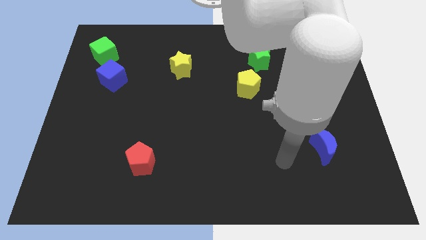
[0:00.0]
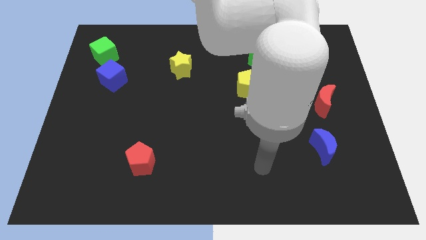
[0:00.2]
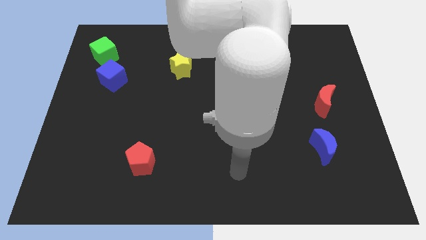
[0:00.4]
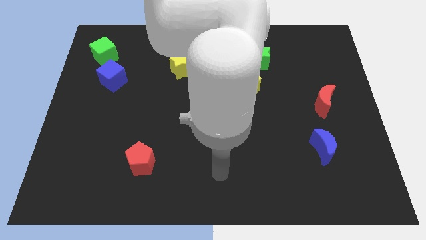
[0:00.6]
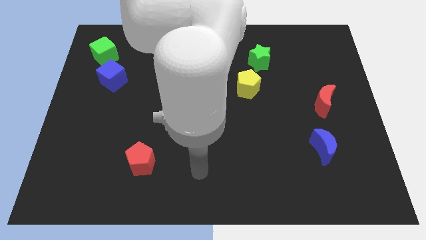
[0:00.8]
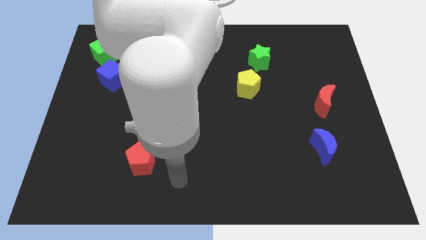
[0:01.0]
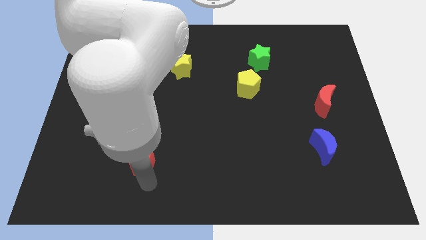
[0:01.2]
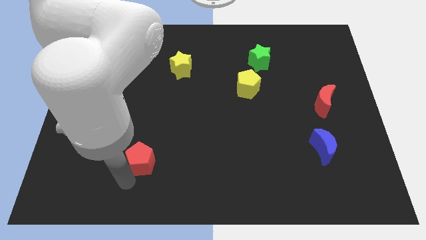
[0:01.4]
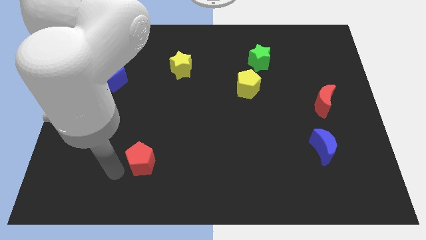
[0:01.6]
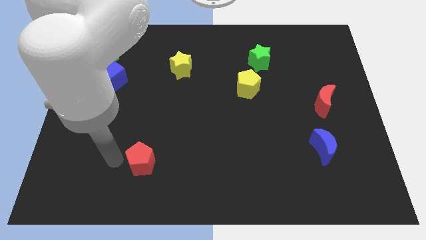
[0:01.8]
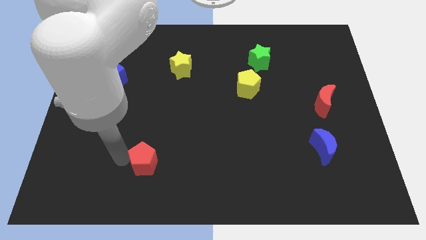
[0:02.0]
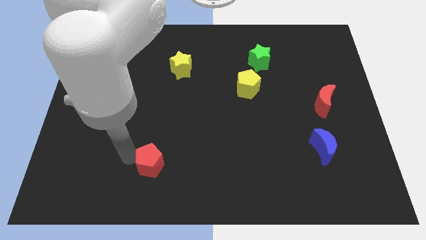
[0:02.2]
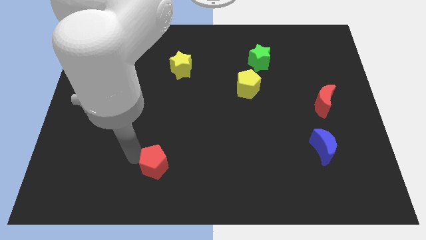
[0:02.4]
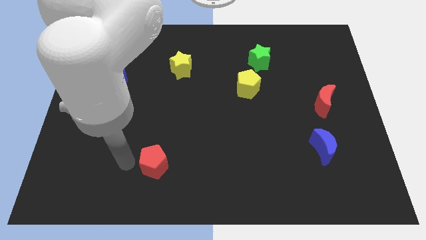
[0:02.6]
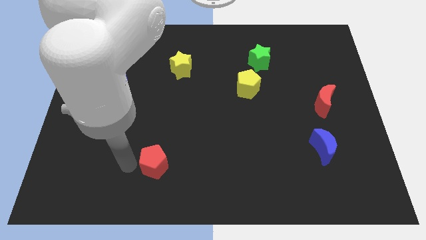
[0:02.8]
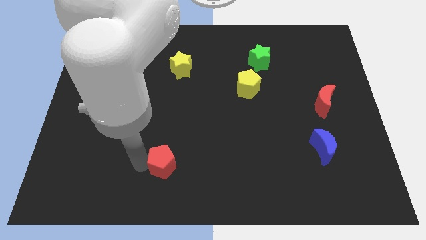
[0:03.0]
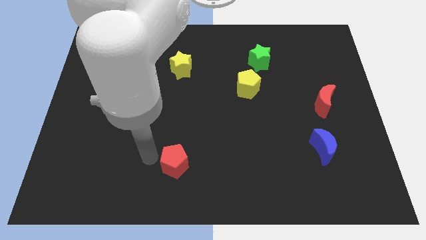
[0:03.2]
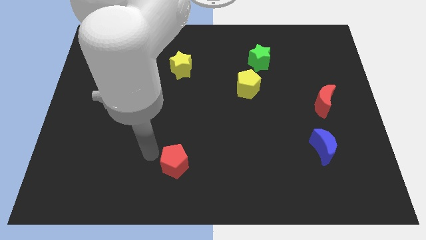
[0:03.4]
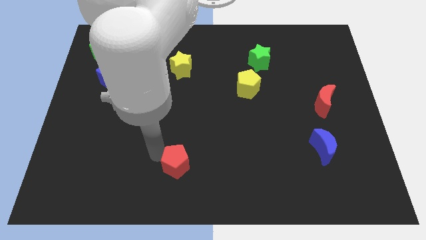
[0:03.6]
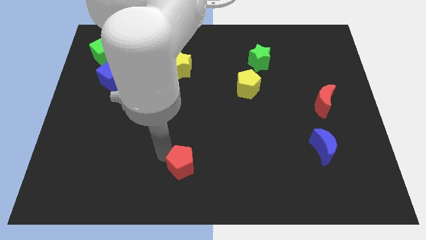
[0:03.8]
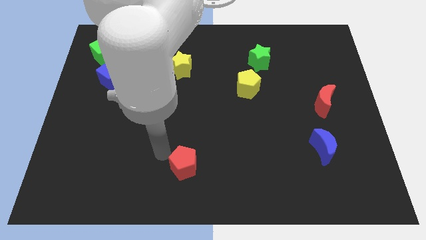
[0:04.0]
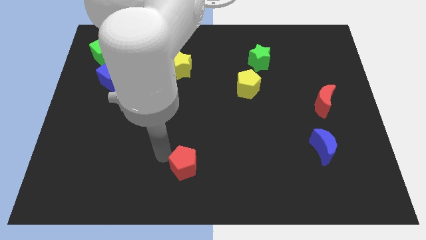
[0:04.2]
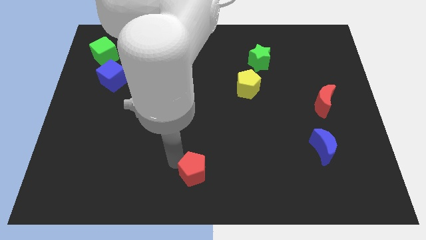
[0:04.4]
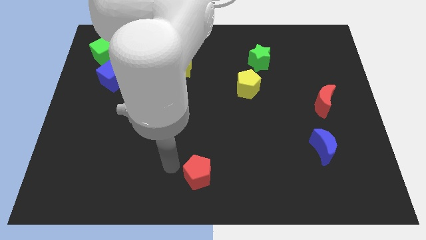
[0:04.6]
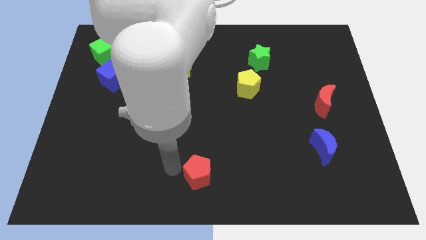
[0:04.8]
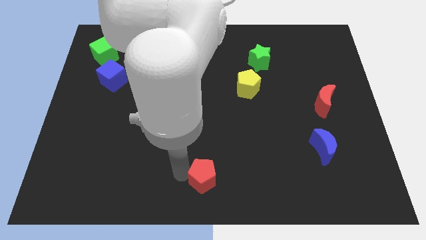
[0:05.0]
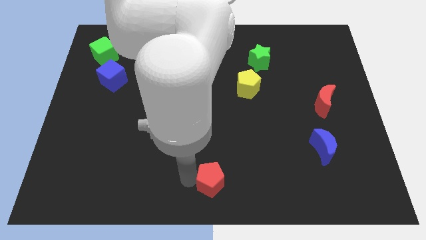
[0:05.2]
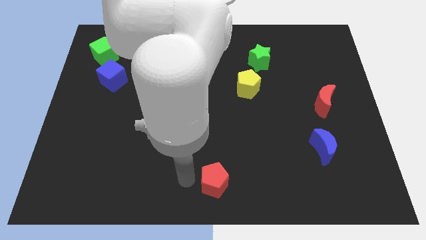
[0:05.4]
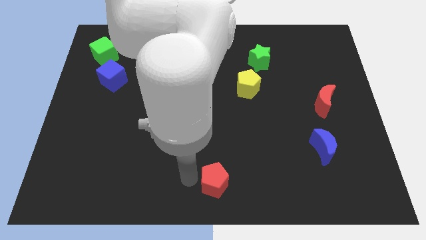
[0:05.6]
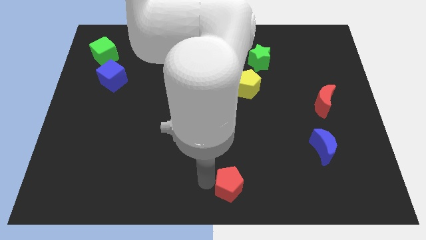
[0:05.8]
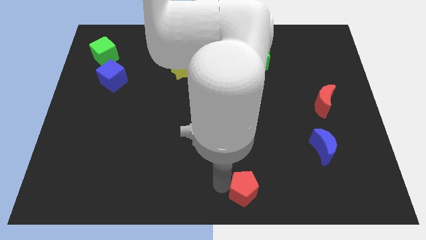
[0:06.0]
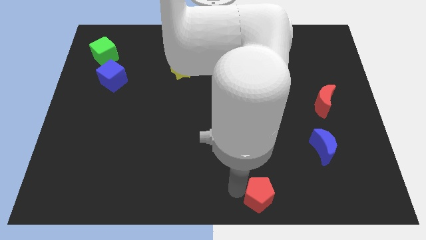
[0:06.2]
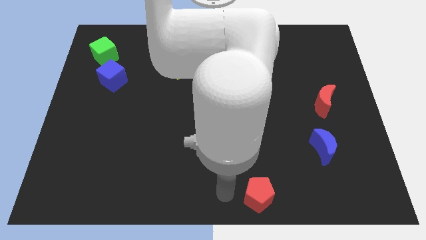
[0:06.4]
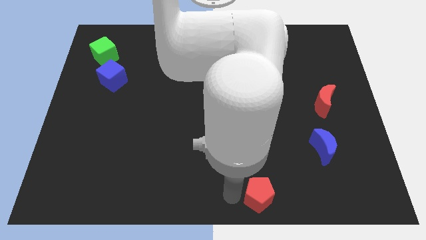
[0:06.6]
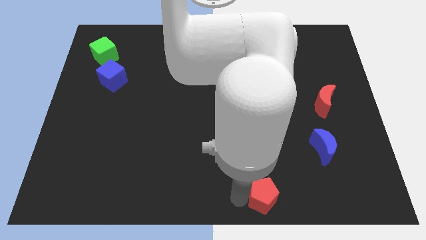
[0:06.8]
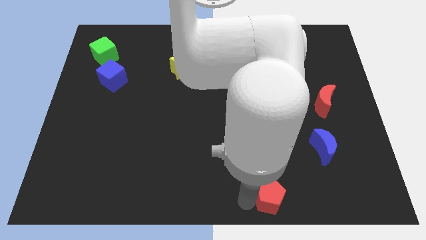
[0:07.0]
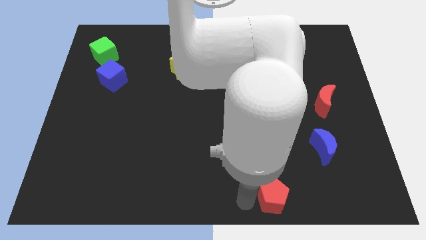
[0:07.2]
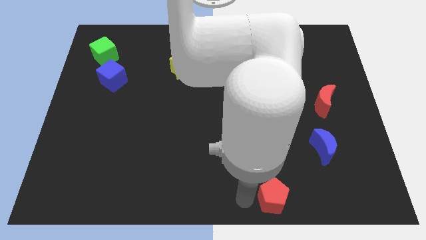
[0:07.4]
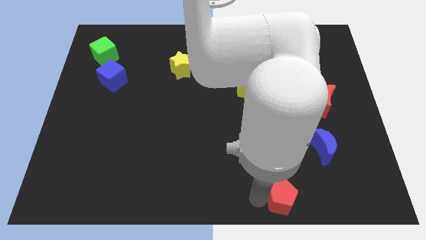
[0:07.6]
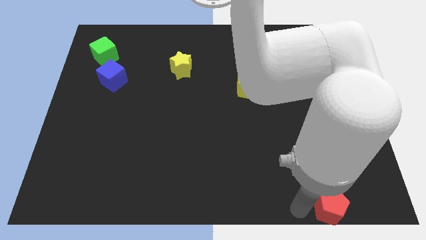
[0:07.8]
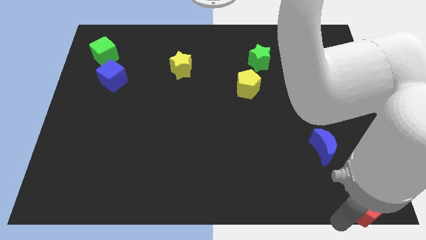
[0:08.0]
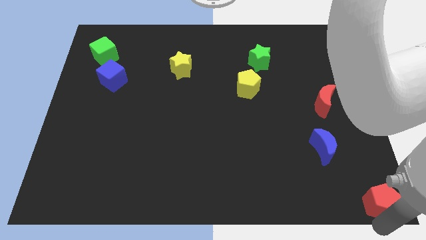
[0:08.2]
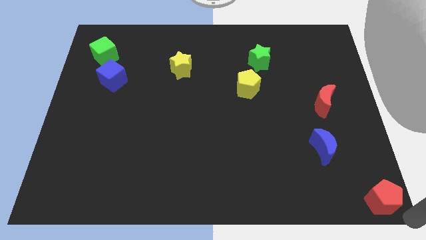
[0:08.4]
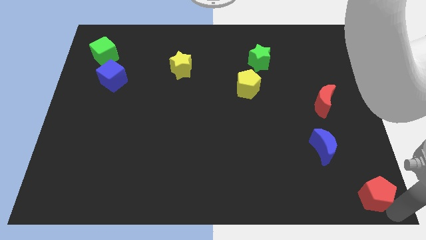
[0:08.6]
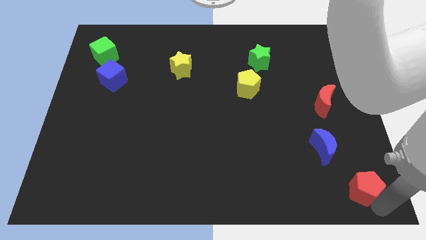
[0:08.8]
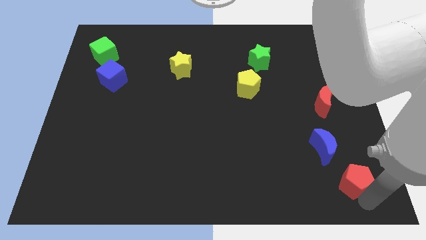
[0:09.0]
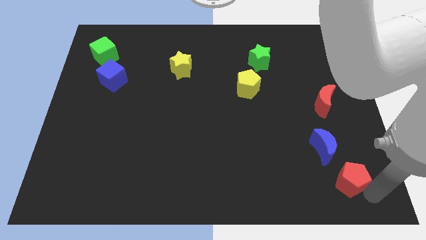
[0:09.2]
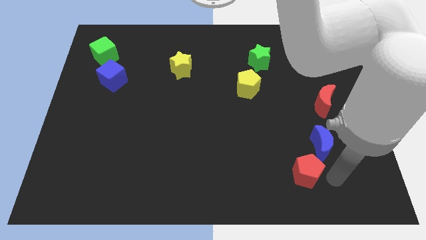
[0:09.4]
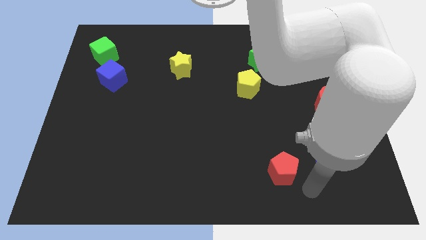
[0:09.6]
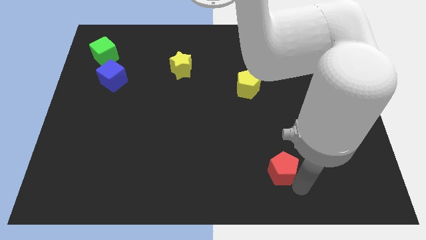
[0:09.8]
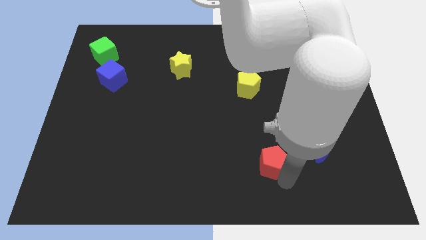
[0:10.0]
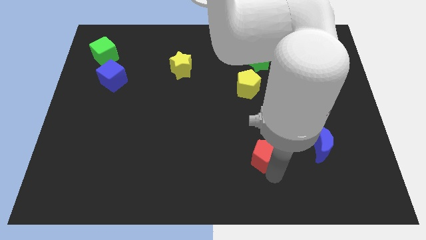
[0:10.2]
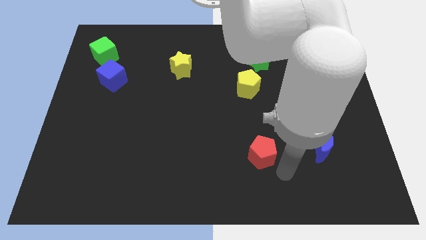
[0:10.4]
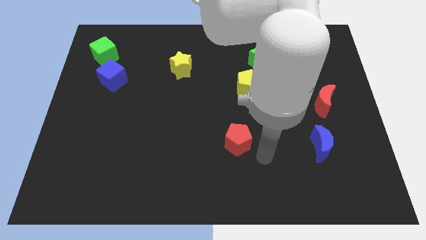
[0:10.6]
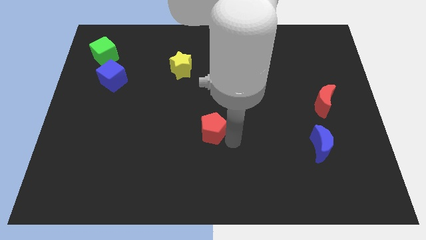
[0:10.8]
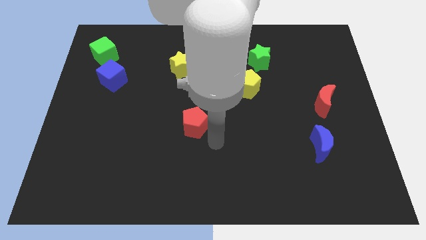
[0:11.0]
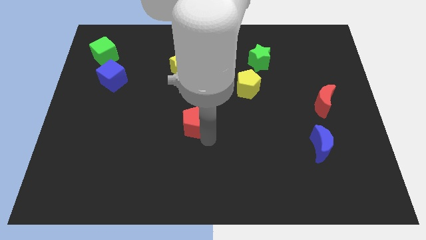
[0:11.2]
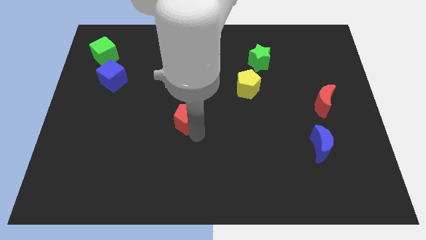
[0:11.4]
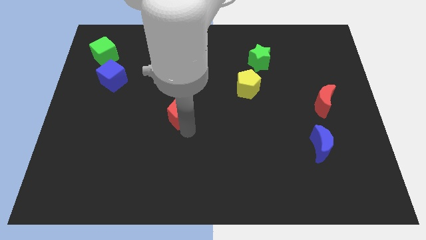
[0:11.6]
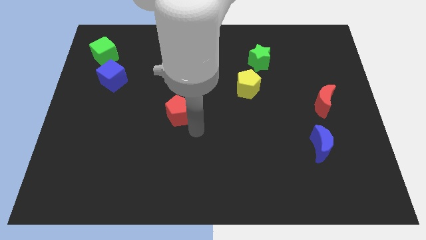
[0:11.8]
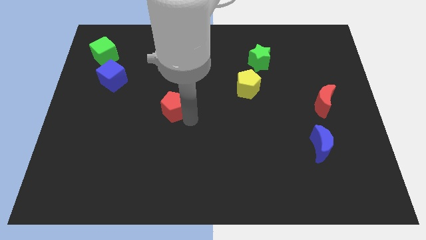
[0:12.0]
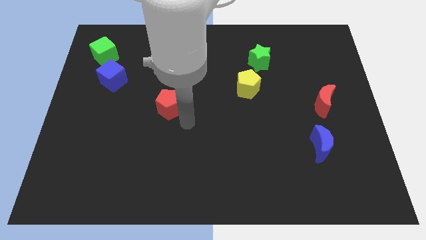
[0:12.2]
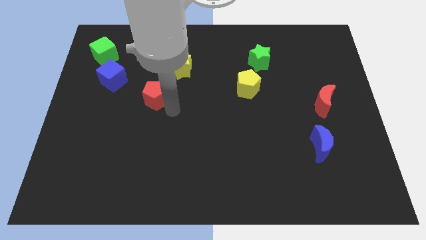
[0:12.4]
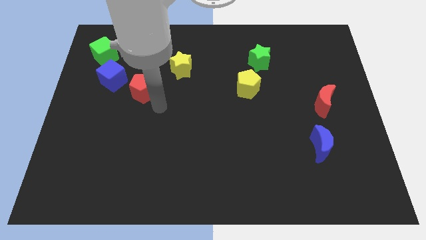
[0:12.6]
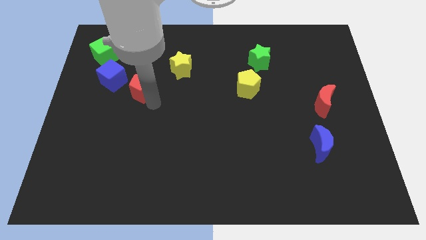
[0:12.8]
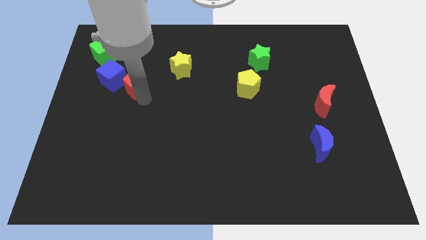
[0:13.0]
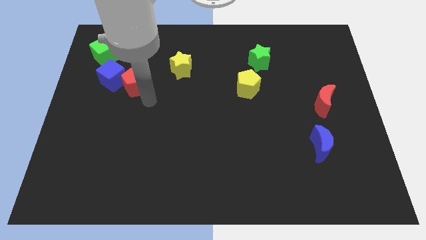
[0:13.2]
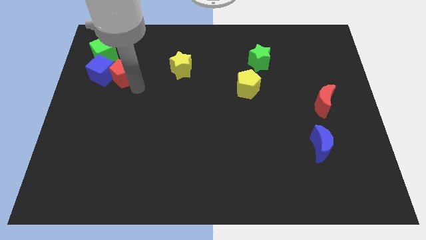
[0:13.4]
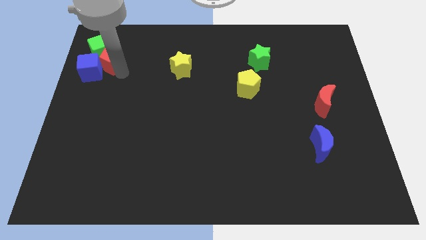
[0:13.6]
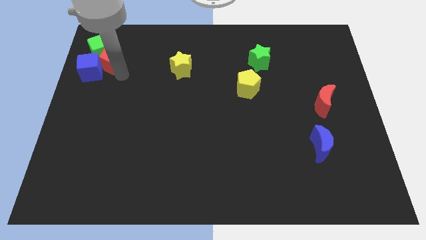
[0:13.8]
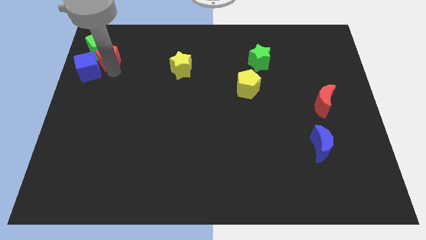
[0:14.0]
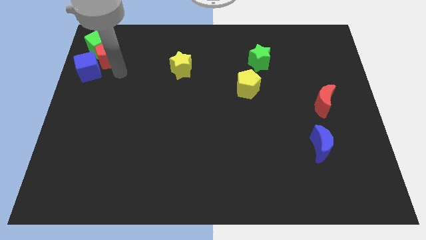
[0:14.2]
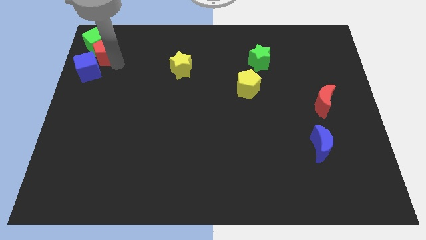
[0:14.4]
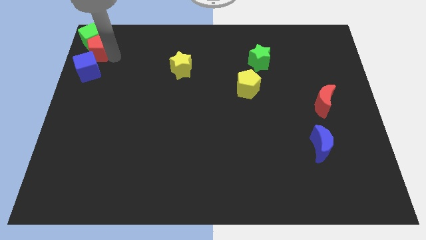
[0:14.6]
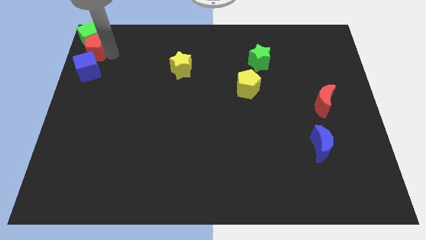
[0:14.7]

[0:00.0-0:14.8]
move the red pentagon to the top left

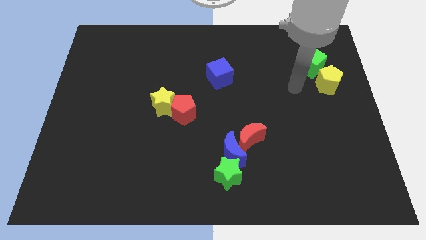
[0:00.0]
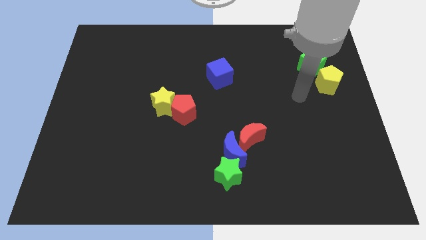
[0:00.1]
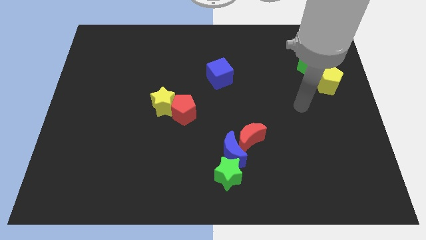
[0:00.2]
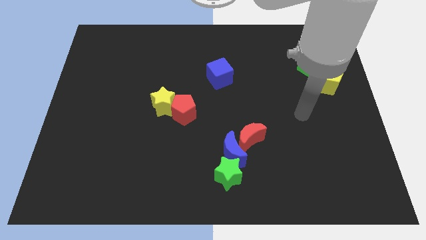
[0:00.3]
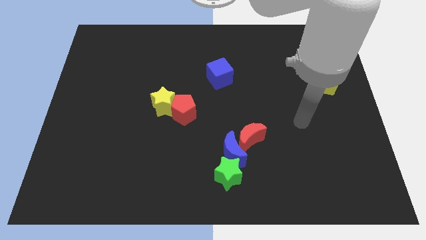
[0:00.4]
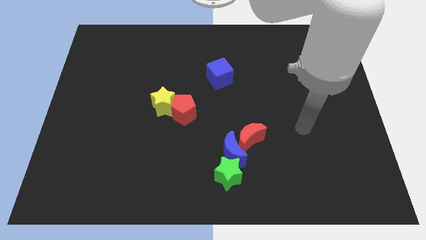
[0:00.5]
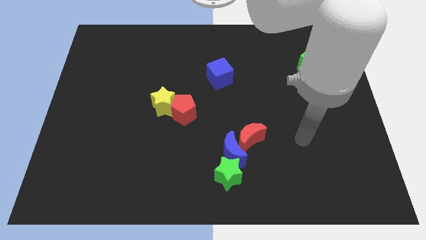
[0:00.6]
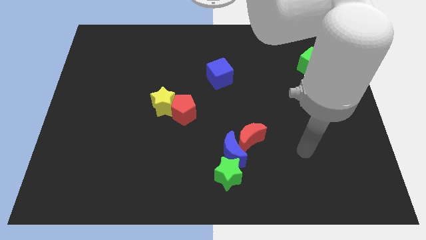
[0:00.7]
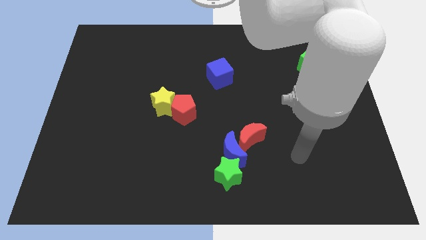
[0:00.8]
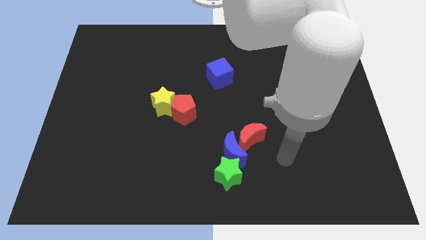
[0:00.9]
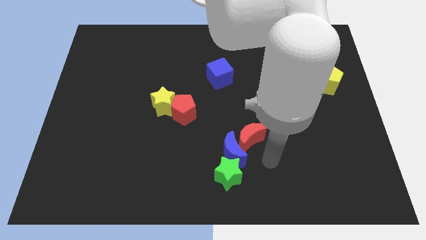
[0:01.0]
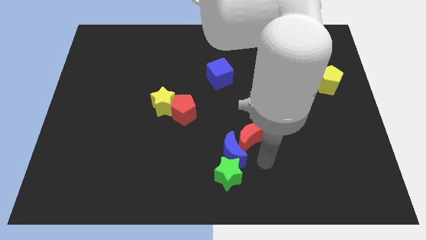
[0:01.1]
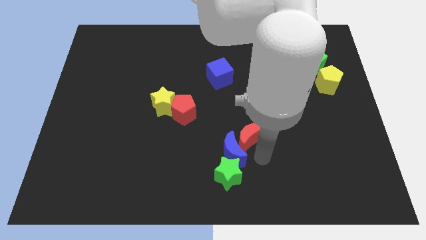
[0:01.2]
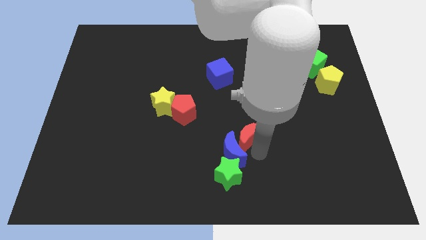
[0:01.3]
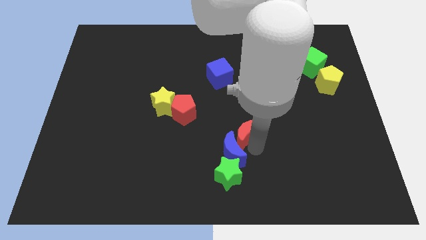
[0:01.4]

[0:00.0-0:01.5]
slide the red moon to the center of the board
